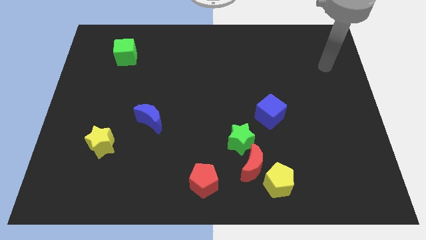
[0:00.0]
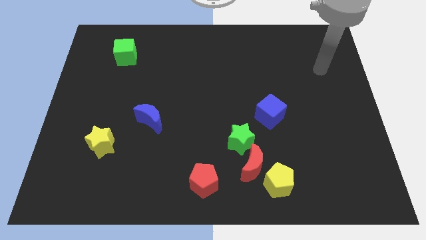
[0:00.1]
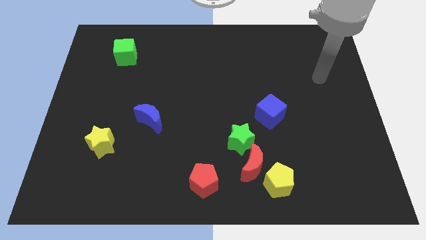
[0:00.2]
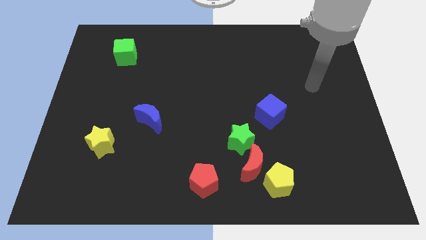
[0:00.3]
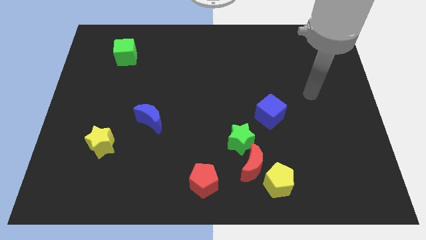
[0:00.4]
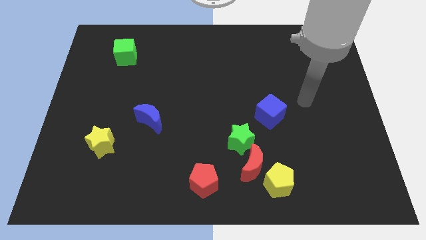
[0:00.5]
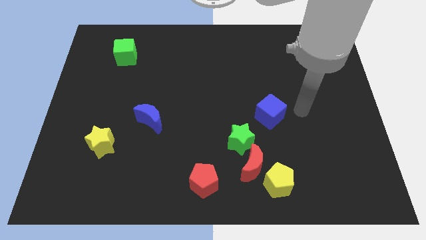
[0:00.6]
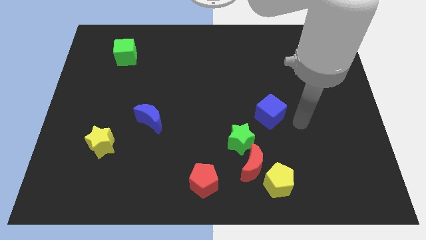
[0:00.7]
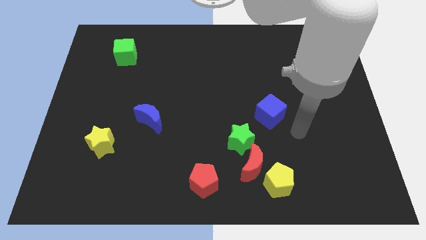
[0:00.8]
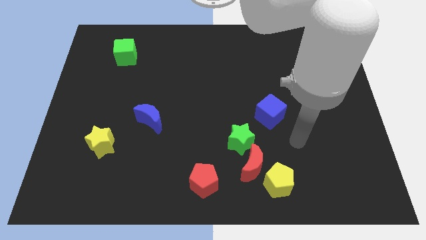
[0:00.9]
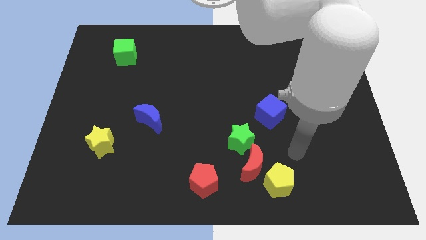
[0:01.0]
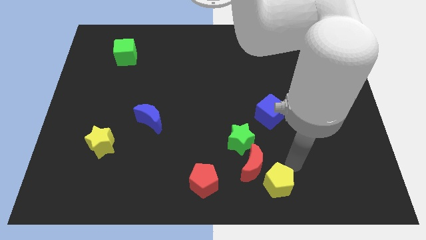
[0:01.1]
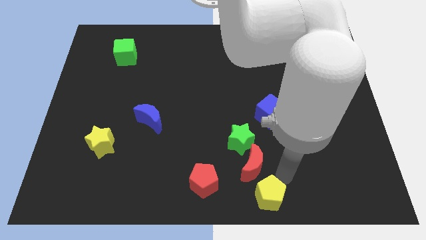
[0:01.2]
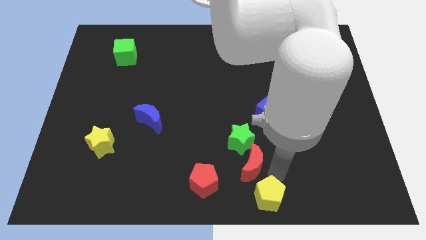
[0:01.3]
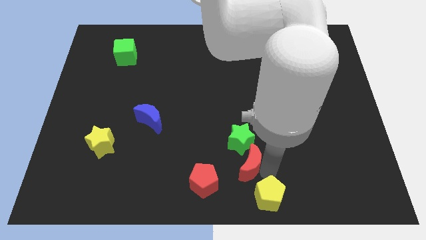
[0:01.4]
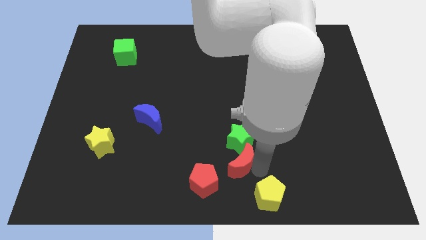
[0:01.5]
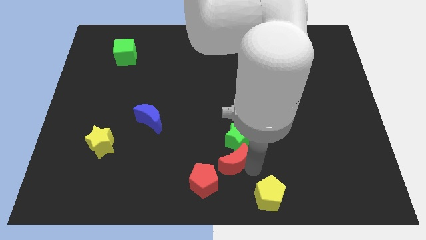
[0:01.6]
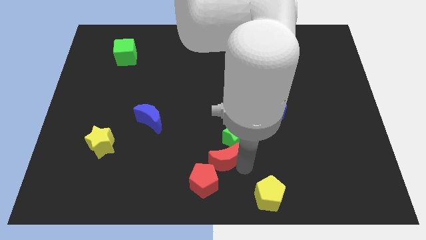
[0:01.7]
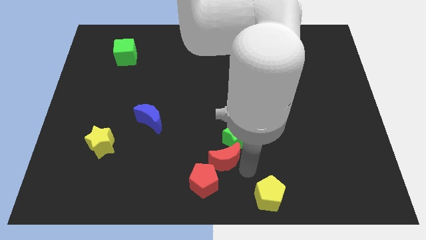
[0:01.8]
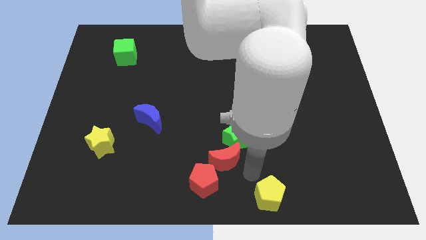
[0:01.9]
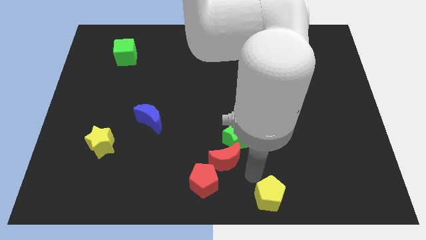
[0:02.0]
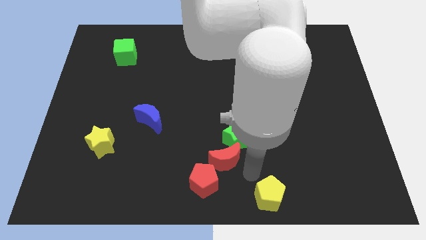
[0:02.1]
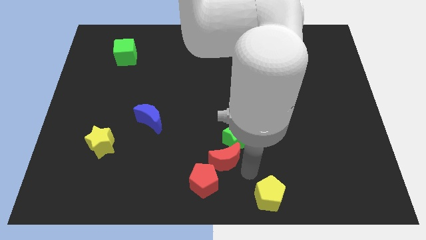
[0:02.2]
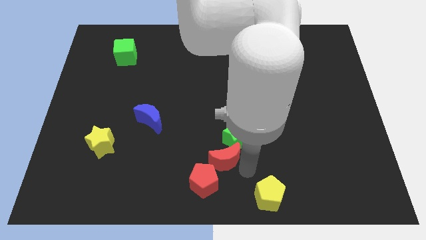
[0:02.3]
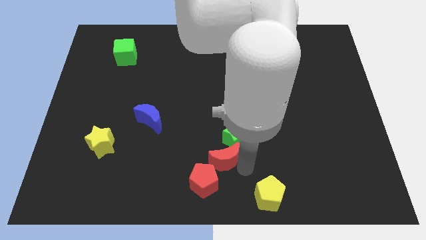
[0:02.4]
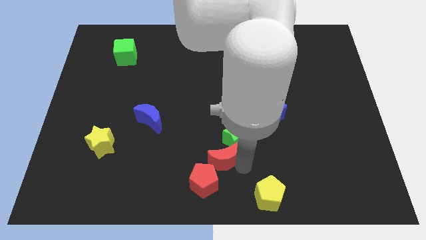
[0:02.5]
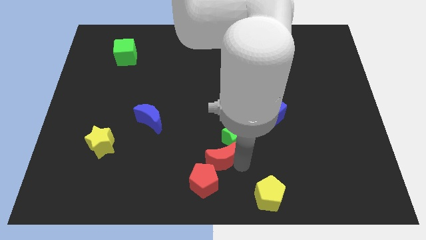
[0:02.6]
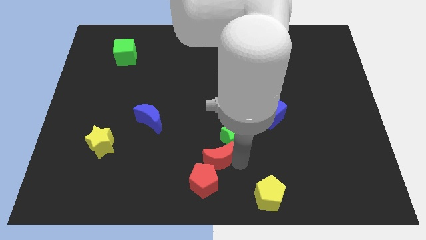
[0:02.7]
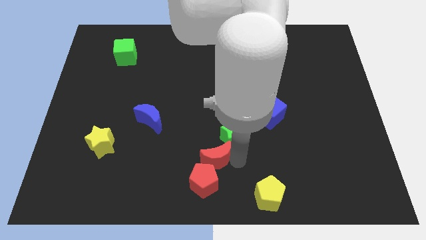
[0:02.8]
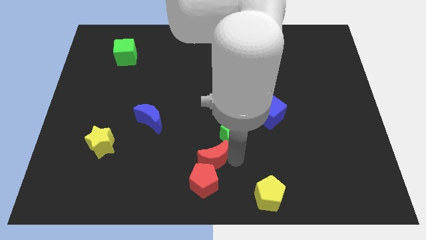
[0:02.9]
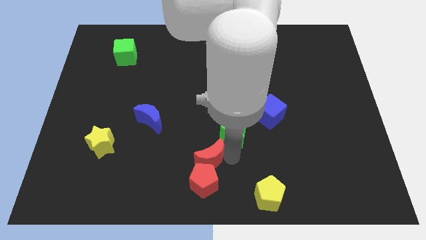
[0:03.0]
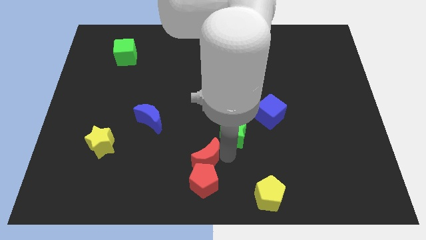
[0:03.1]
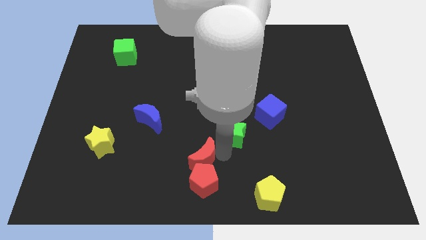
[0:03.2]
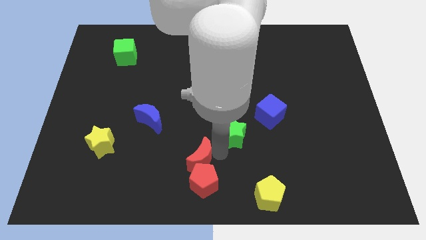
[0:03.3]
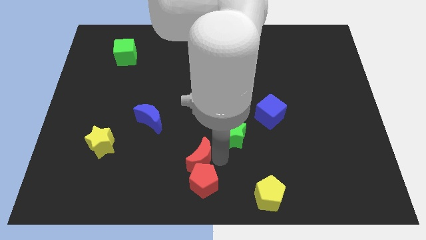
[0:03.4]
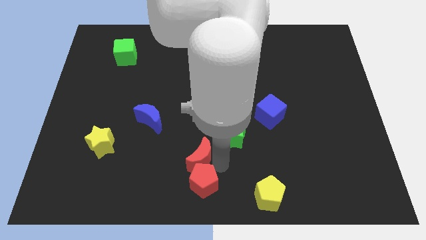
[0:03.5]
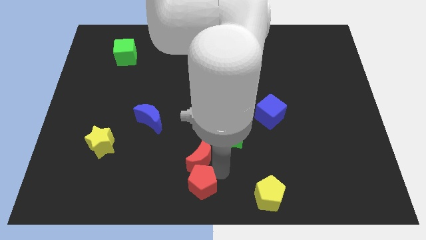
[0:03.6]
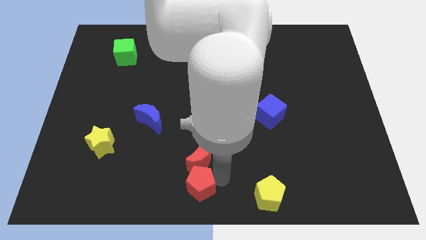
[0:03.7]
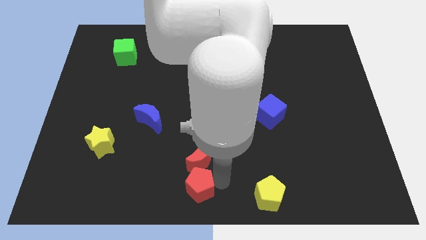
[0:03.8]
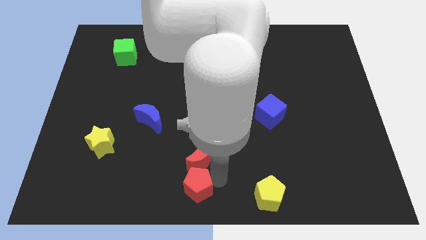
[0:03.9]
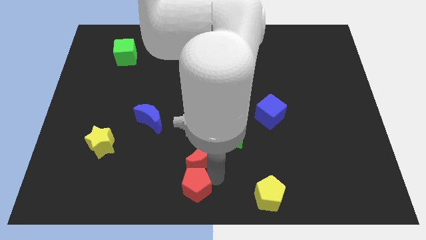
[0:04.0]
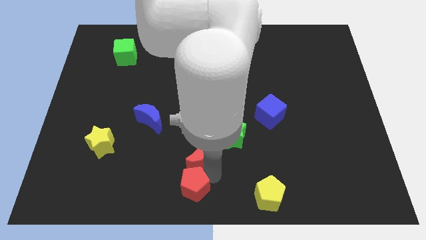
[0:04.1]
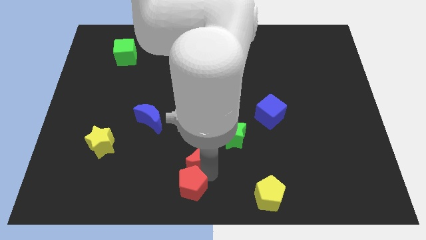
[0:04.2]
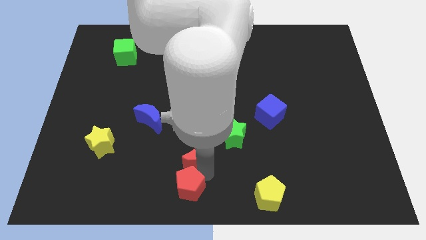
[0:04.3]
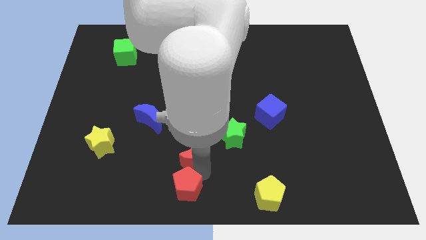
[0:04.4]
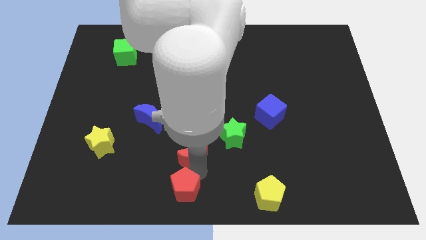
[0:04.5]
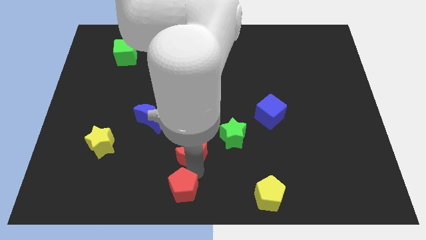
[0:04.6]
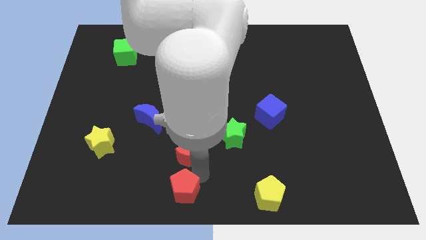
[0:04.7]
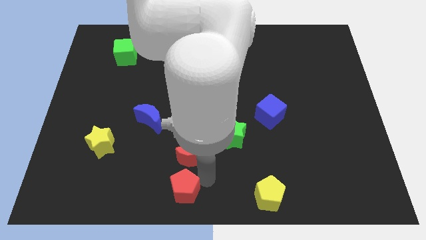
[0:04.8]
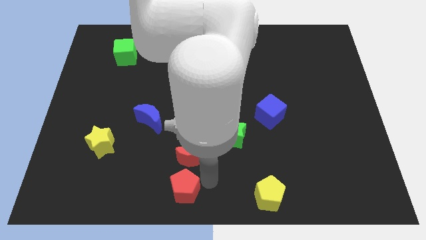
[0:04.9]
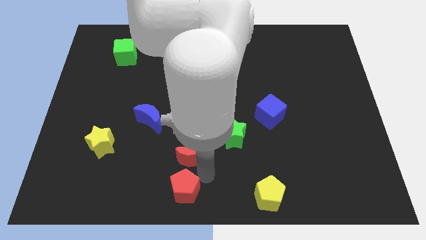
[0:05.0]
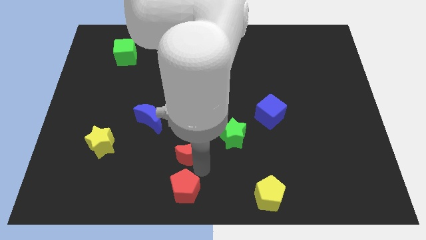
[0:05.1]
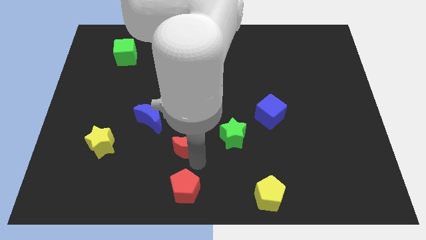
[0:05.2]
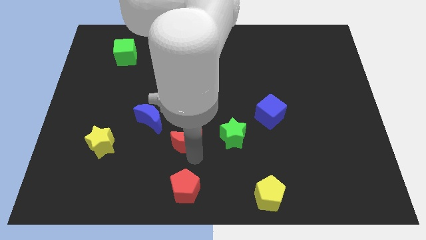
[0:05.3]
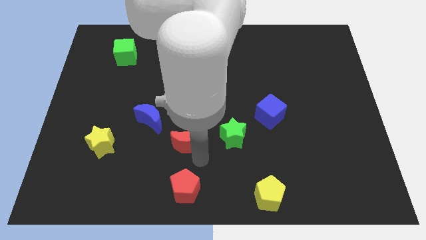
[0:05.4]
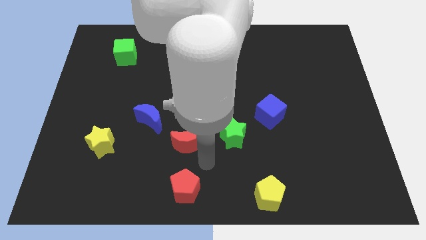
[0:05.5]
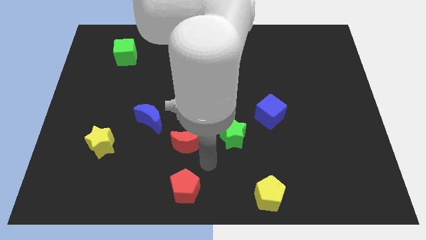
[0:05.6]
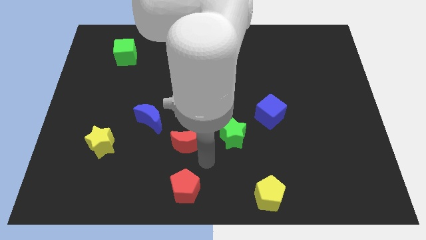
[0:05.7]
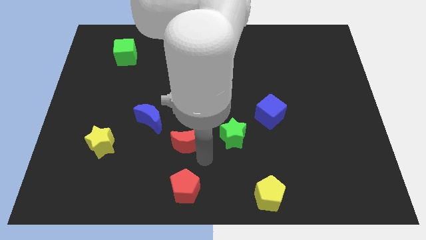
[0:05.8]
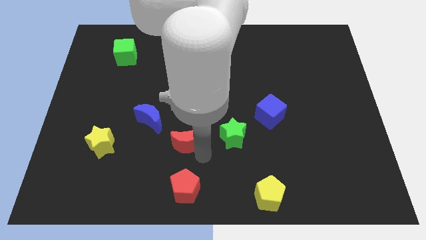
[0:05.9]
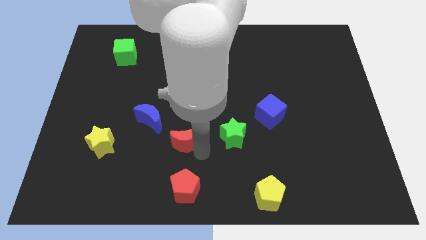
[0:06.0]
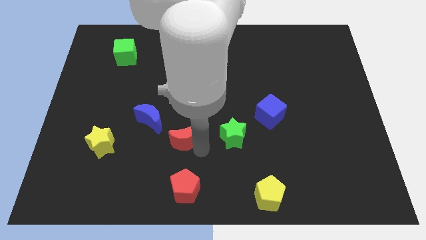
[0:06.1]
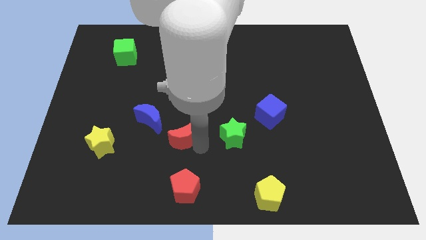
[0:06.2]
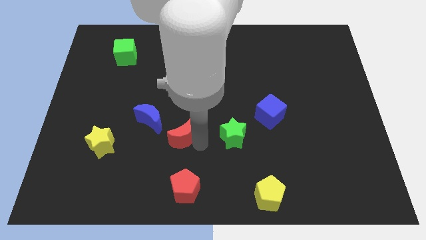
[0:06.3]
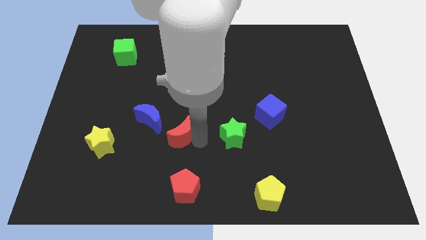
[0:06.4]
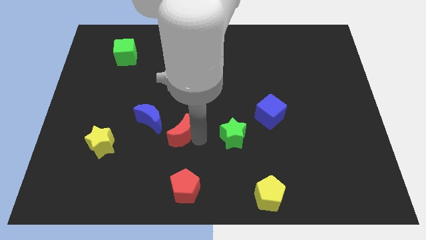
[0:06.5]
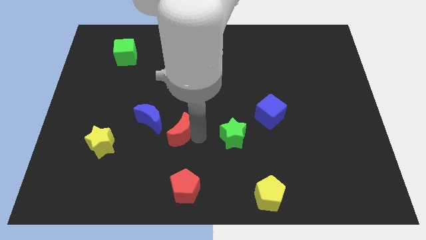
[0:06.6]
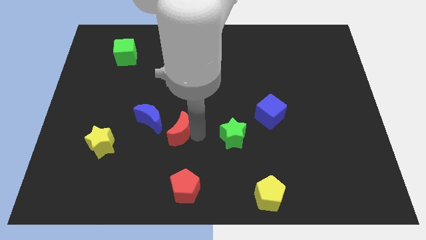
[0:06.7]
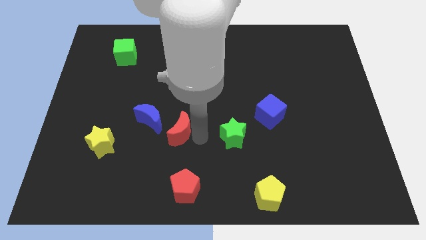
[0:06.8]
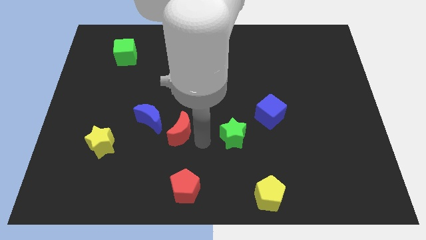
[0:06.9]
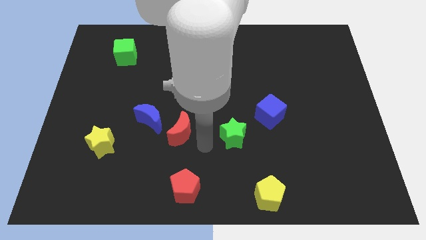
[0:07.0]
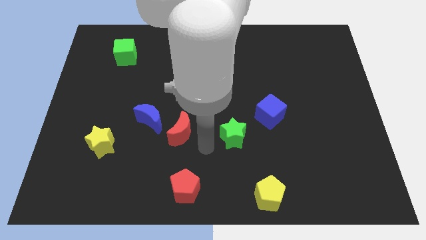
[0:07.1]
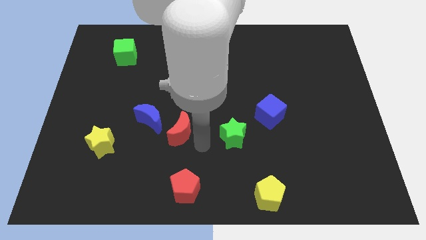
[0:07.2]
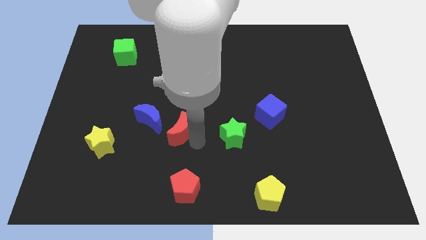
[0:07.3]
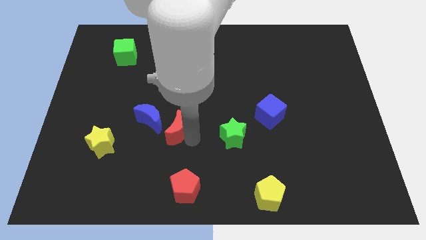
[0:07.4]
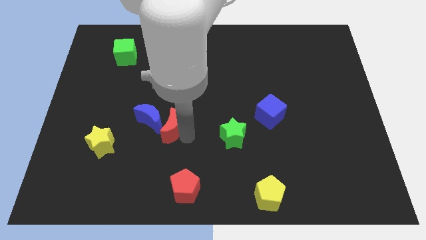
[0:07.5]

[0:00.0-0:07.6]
put the red moon towards the blue moon

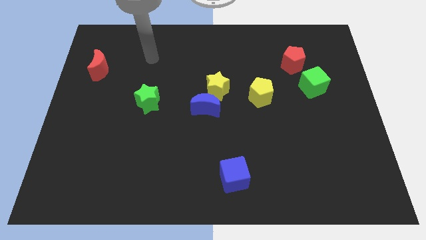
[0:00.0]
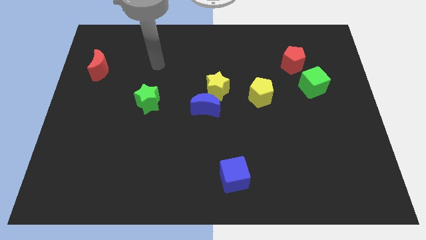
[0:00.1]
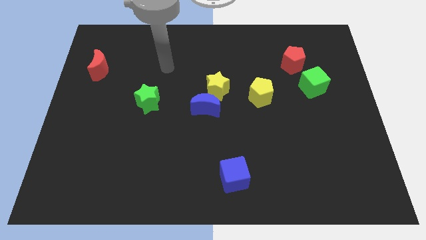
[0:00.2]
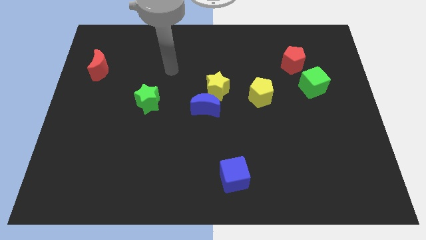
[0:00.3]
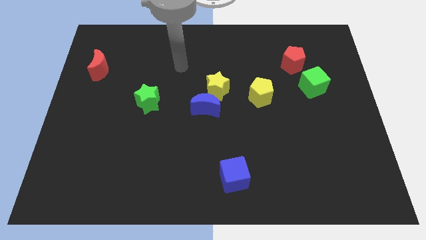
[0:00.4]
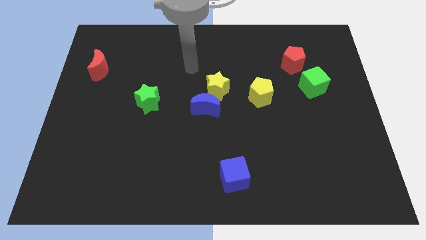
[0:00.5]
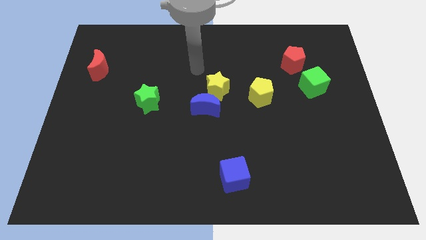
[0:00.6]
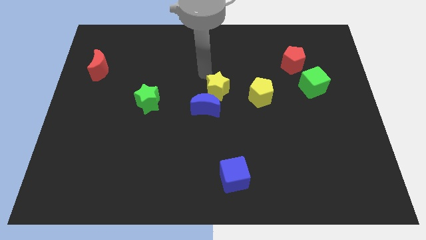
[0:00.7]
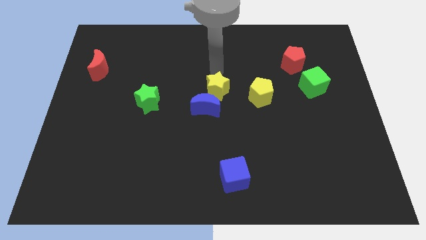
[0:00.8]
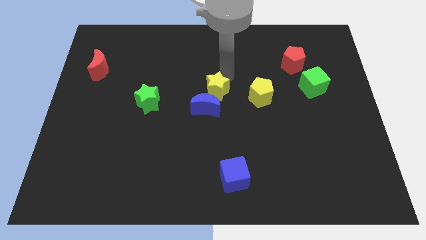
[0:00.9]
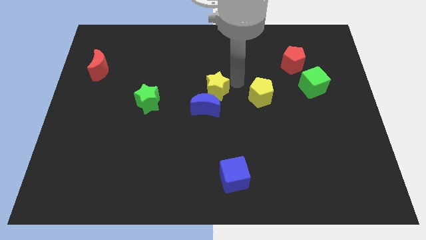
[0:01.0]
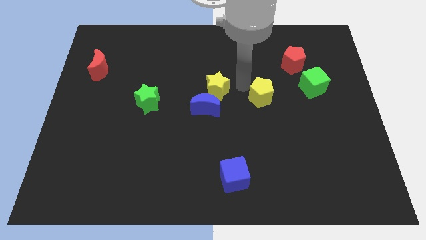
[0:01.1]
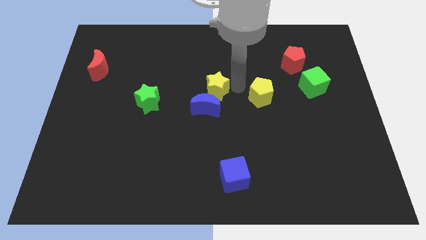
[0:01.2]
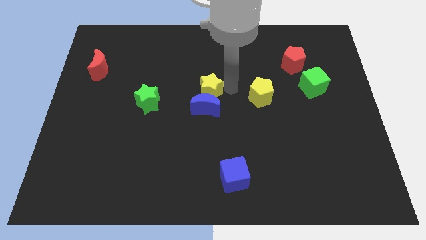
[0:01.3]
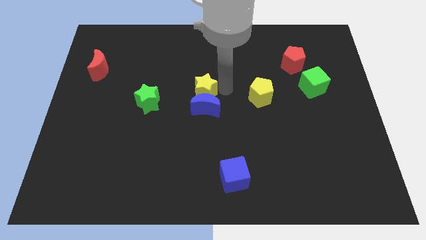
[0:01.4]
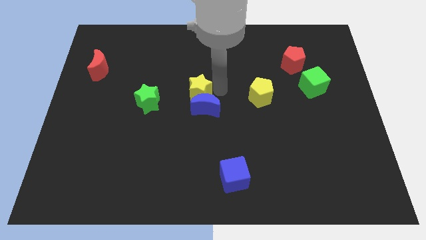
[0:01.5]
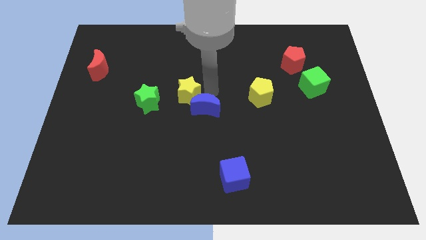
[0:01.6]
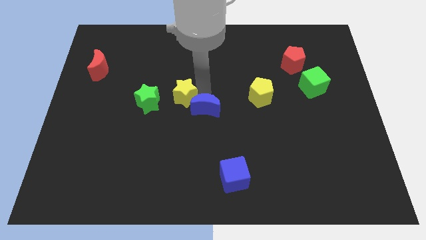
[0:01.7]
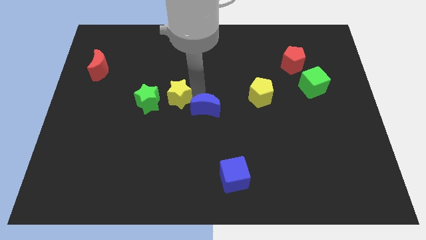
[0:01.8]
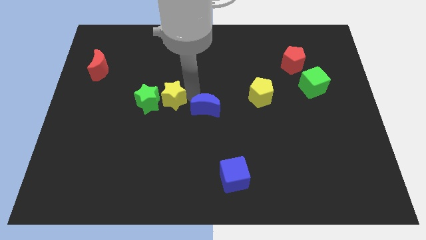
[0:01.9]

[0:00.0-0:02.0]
slide the yellow star towards the green star
